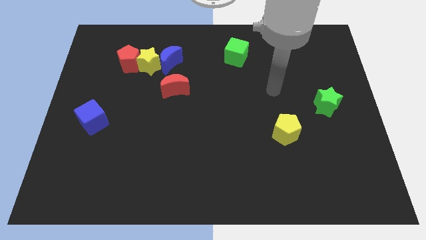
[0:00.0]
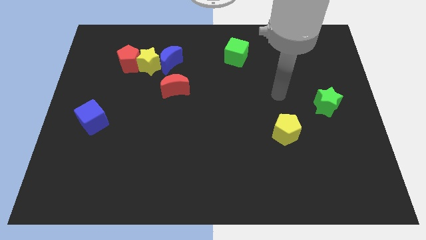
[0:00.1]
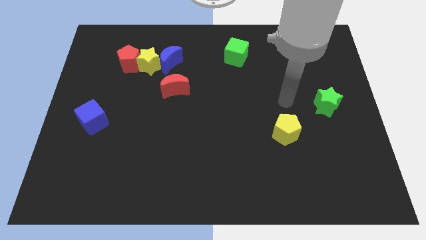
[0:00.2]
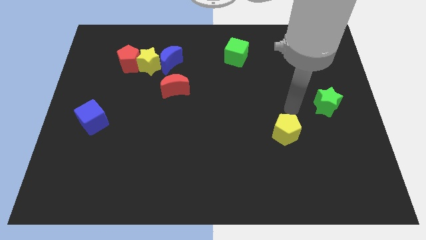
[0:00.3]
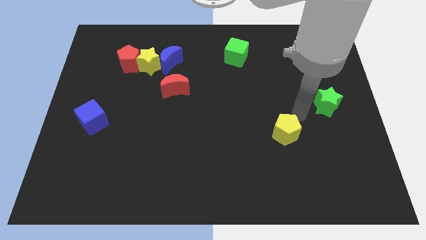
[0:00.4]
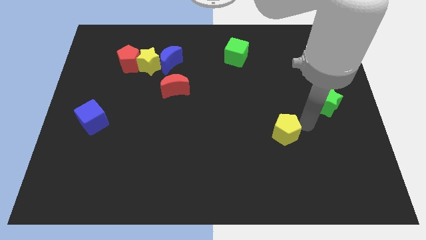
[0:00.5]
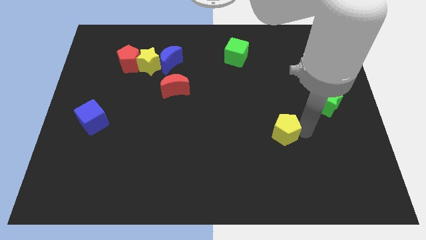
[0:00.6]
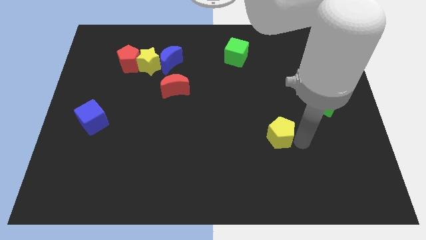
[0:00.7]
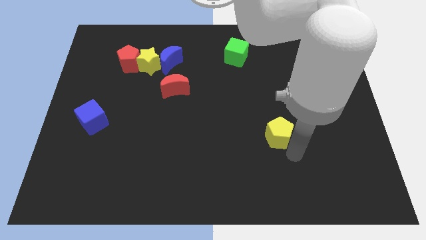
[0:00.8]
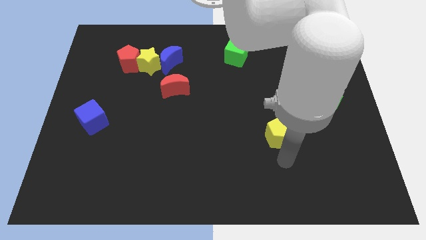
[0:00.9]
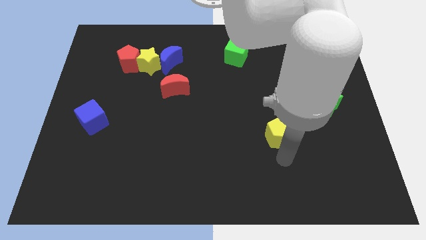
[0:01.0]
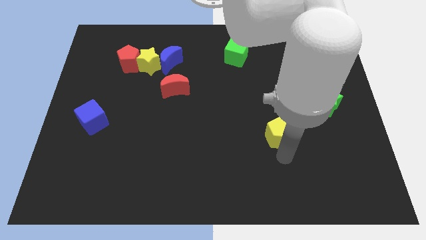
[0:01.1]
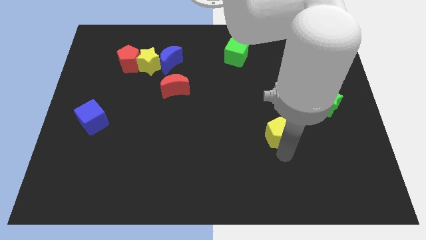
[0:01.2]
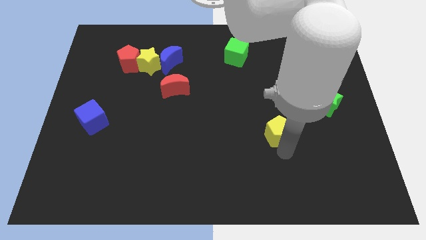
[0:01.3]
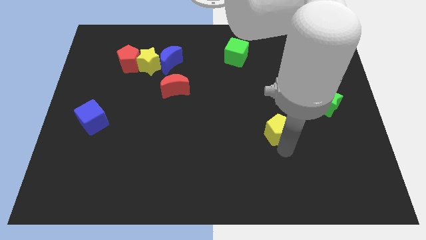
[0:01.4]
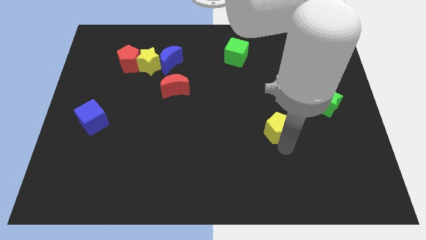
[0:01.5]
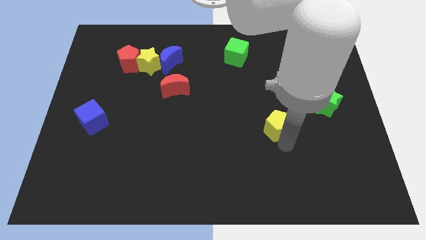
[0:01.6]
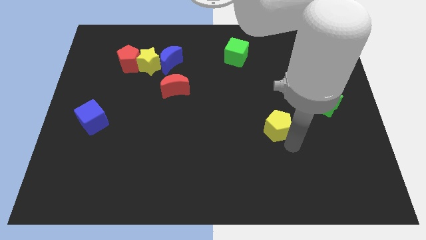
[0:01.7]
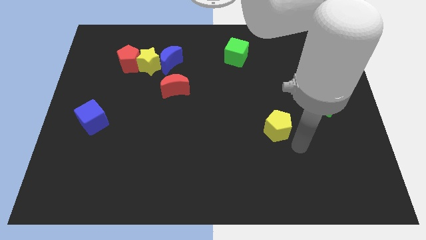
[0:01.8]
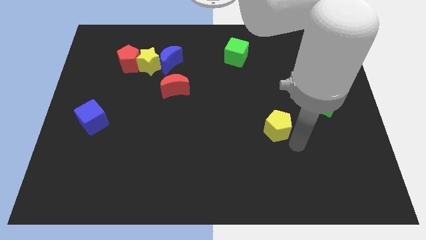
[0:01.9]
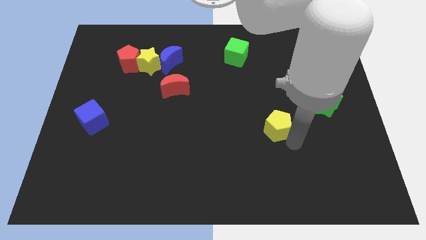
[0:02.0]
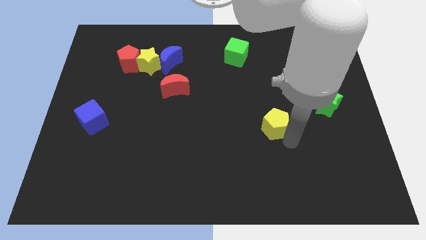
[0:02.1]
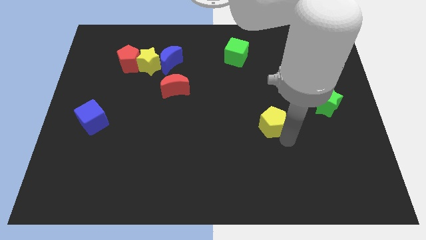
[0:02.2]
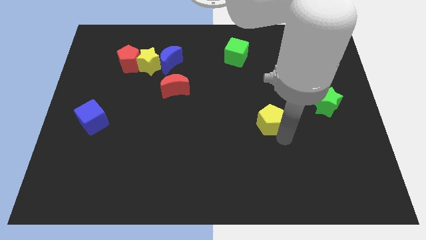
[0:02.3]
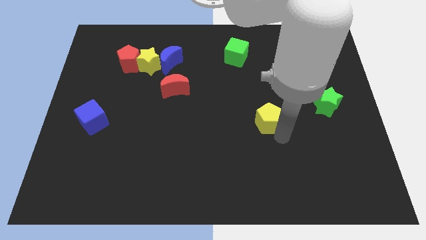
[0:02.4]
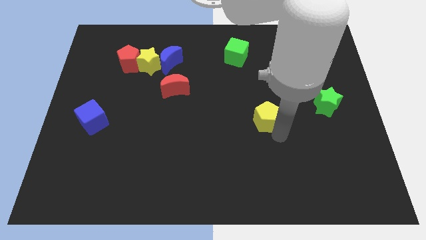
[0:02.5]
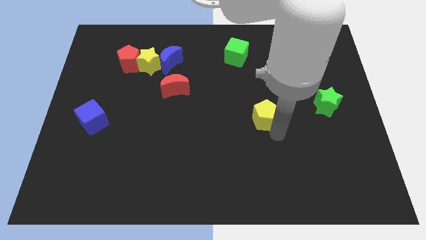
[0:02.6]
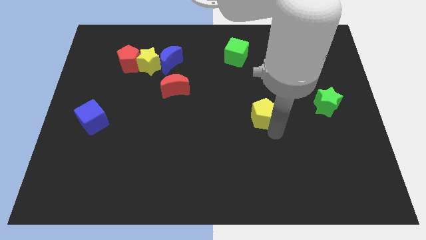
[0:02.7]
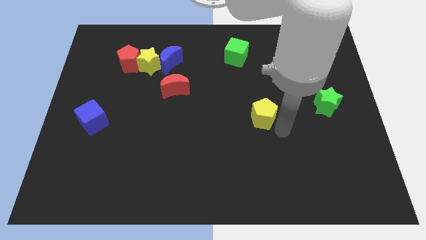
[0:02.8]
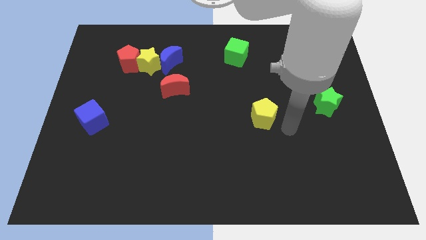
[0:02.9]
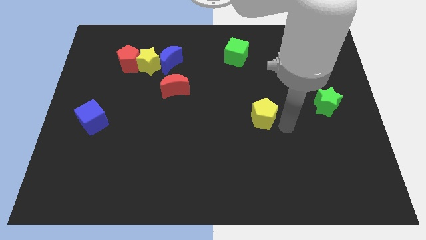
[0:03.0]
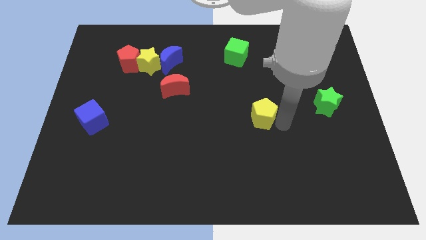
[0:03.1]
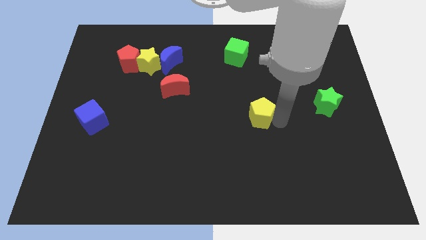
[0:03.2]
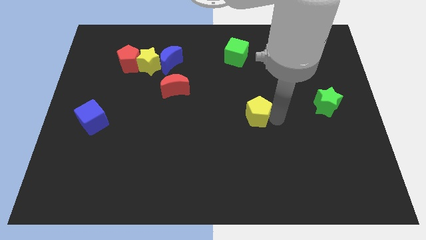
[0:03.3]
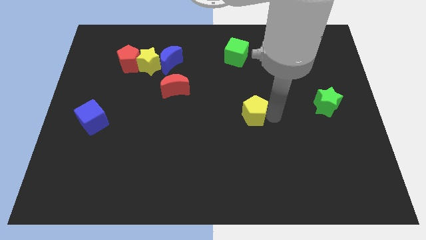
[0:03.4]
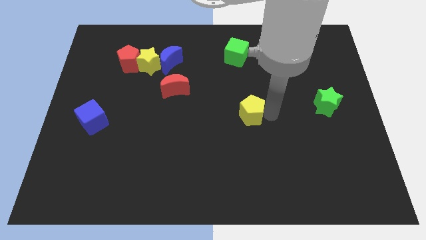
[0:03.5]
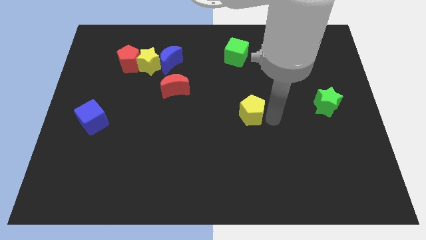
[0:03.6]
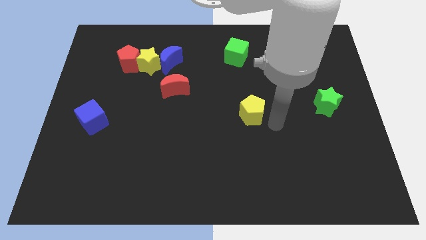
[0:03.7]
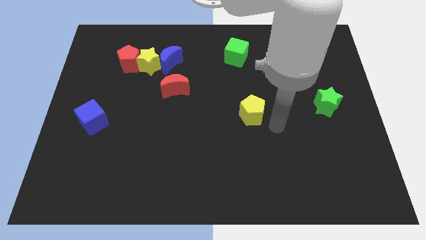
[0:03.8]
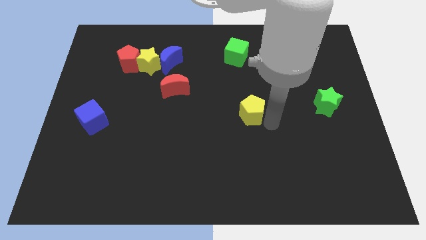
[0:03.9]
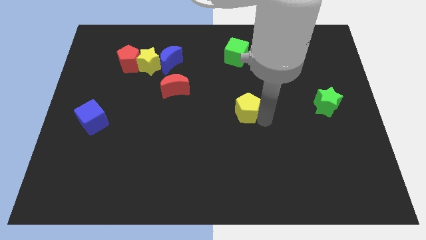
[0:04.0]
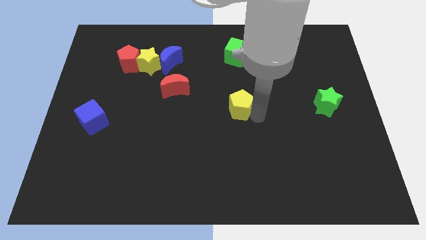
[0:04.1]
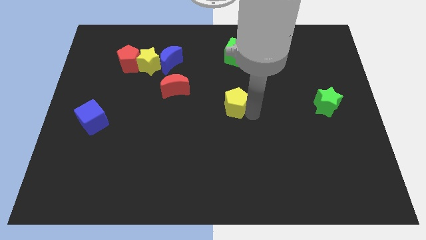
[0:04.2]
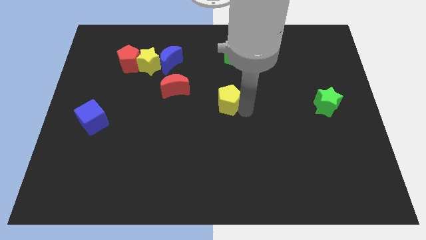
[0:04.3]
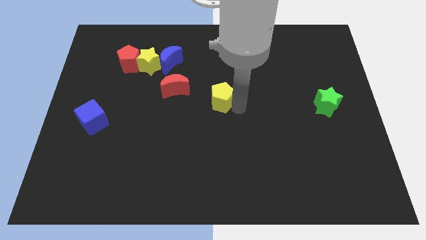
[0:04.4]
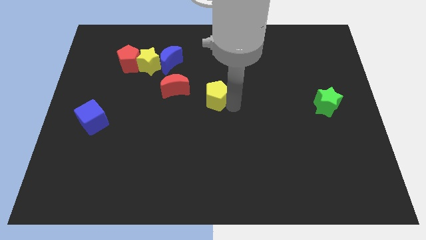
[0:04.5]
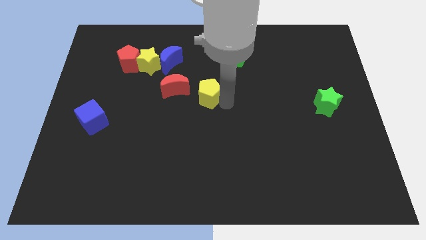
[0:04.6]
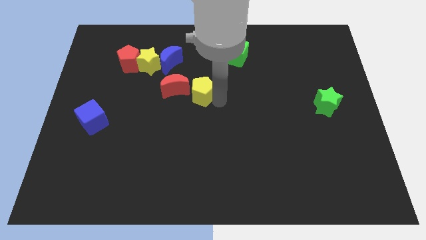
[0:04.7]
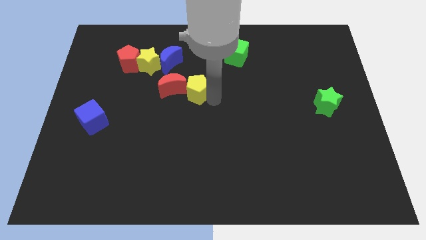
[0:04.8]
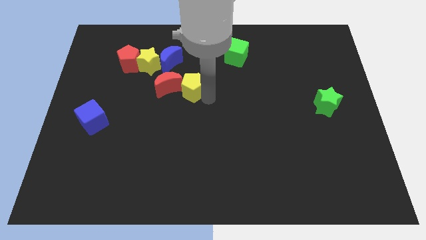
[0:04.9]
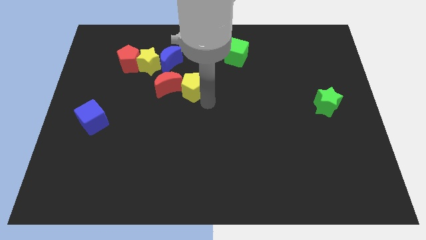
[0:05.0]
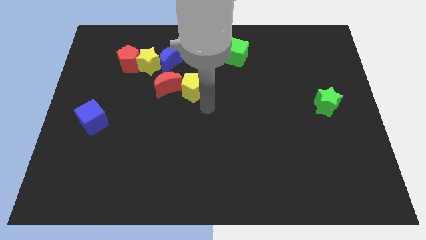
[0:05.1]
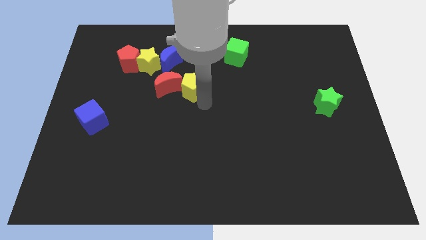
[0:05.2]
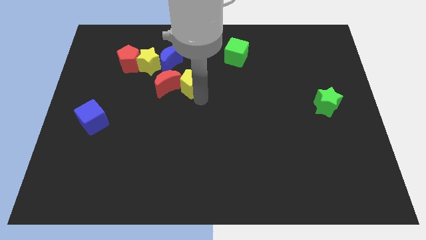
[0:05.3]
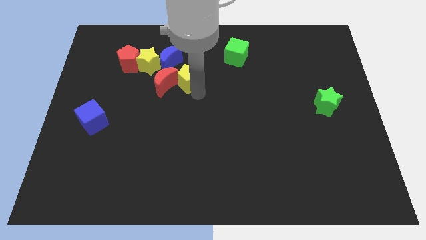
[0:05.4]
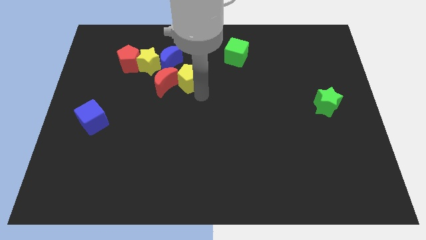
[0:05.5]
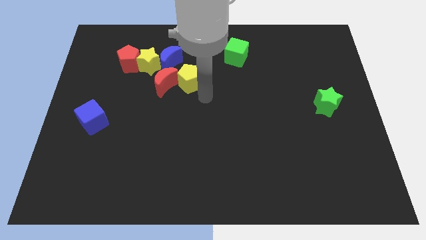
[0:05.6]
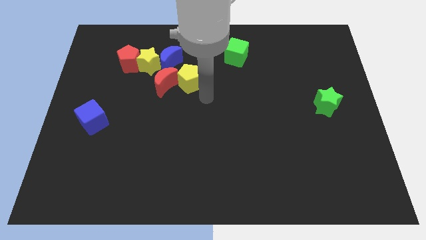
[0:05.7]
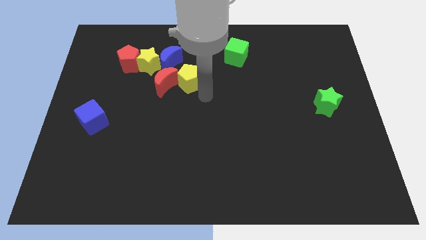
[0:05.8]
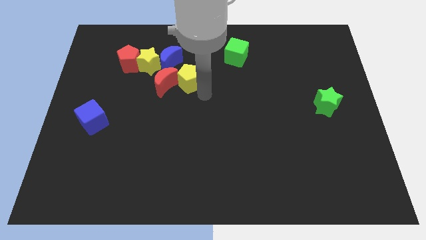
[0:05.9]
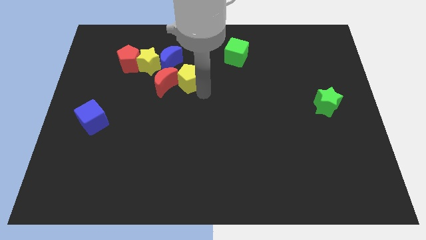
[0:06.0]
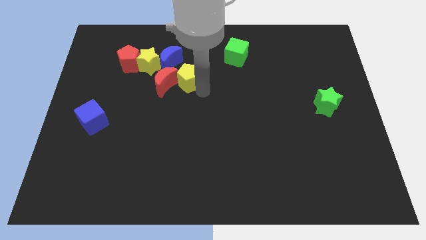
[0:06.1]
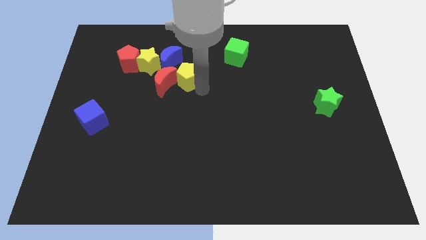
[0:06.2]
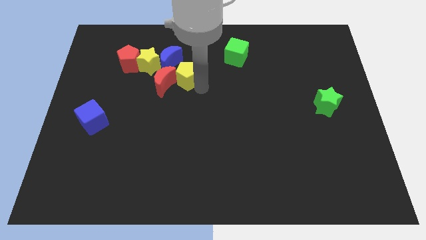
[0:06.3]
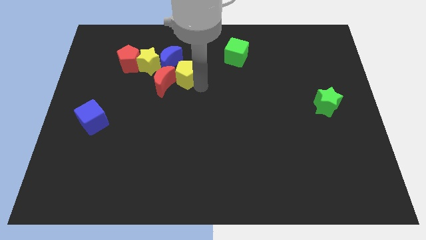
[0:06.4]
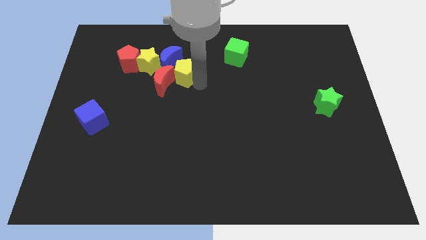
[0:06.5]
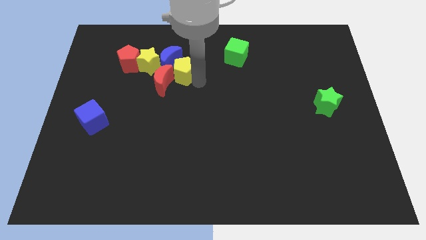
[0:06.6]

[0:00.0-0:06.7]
move the yellow pentagon close to the blue moon

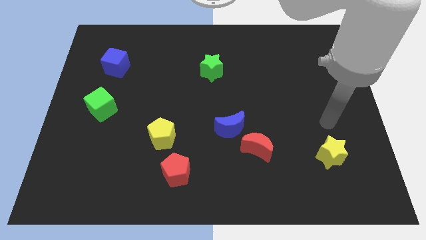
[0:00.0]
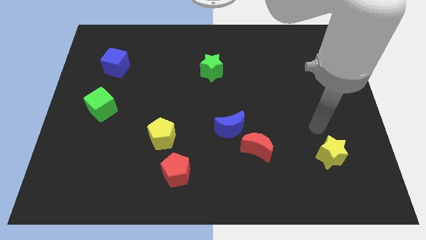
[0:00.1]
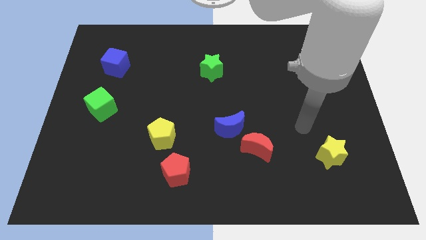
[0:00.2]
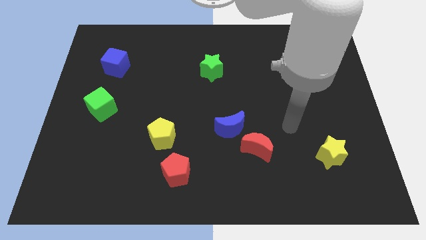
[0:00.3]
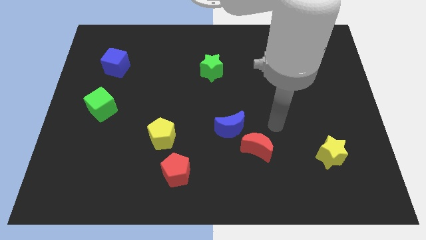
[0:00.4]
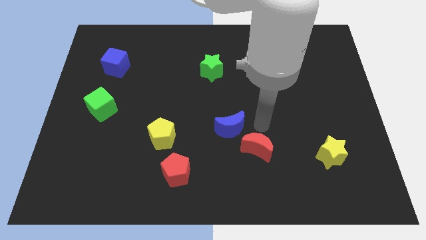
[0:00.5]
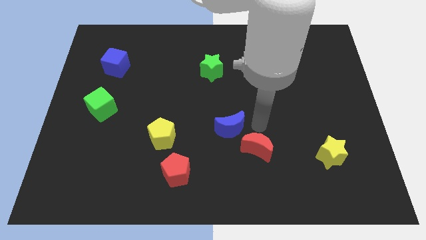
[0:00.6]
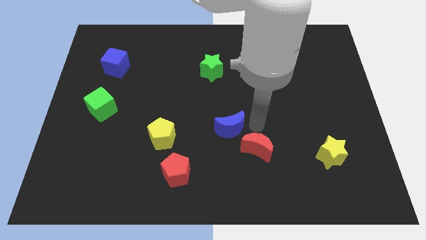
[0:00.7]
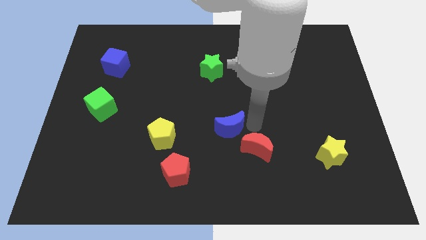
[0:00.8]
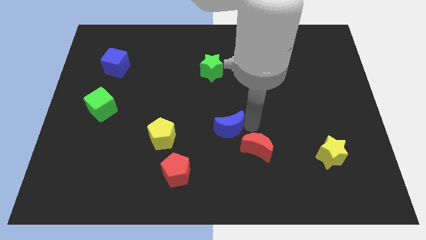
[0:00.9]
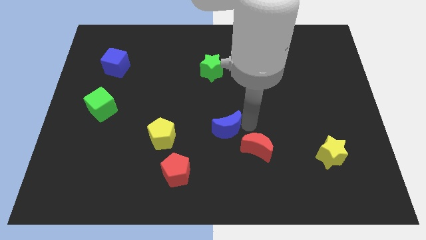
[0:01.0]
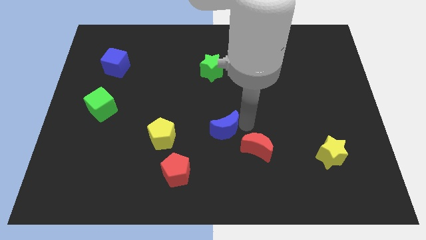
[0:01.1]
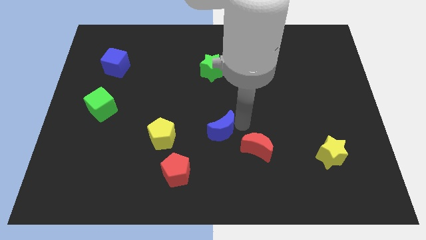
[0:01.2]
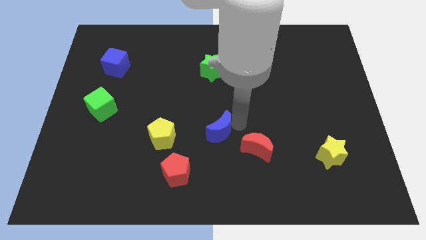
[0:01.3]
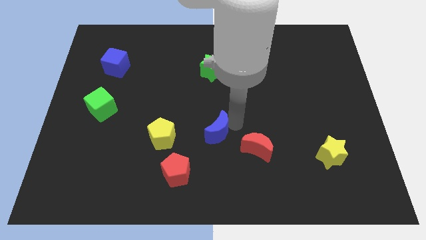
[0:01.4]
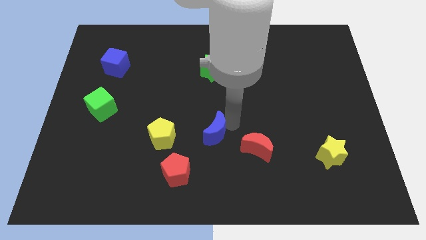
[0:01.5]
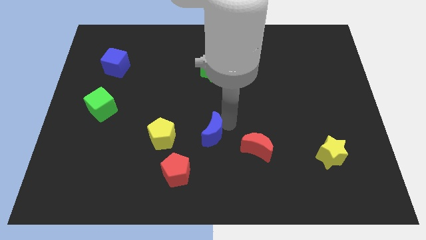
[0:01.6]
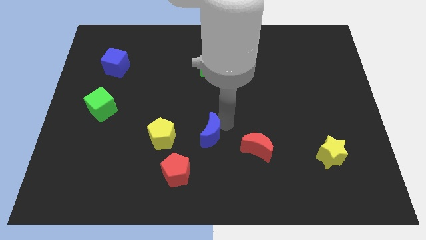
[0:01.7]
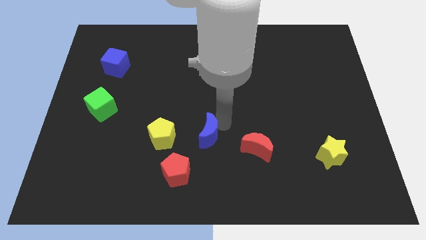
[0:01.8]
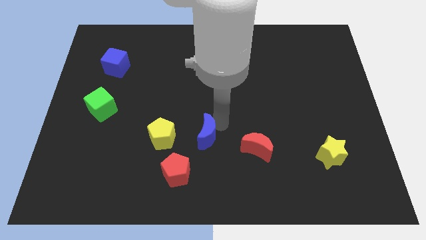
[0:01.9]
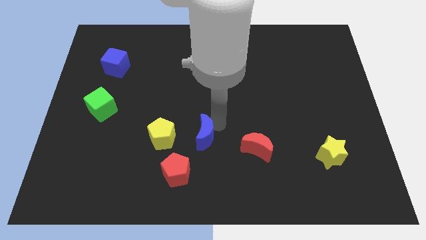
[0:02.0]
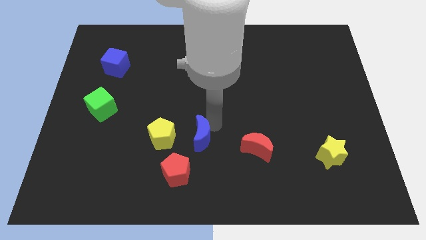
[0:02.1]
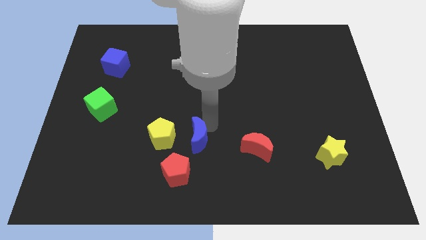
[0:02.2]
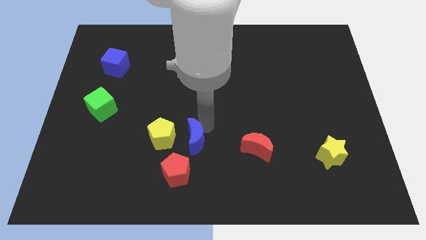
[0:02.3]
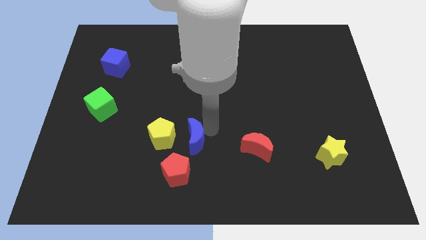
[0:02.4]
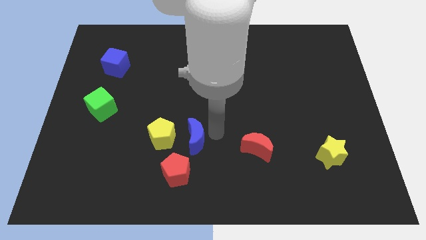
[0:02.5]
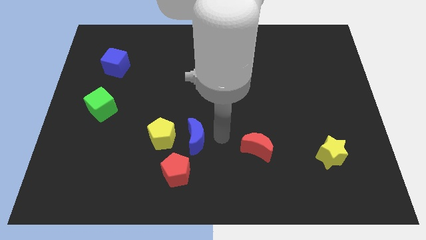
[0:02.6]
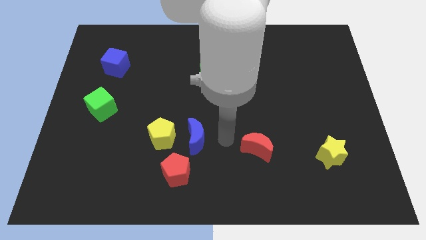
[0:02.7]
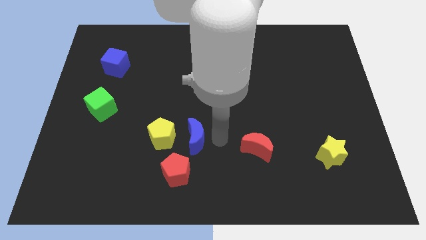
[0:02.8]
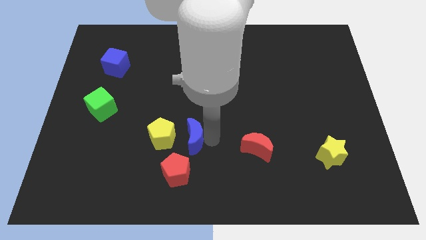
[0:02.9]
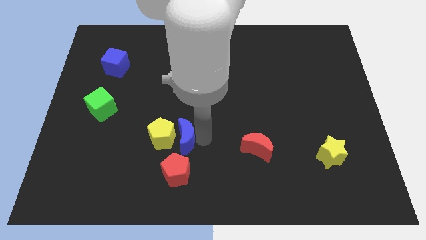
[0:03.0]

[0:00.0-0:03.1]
put the blue moon to the yellow pentagon
